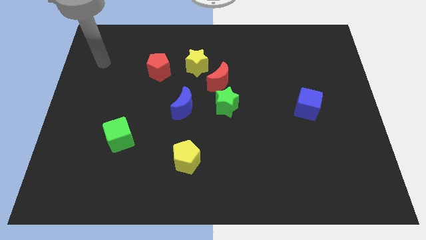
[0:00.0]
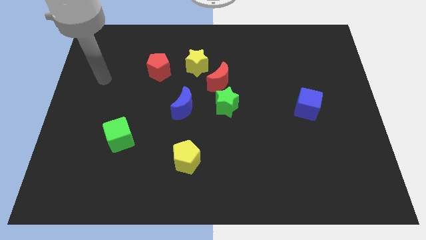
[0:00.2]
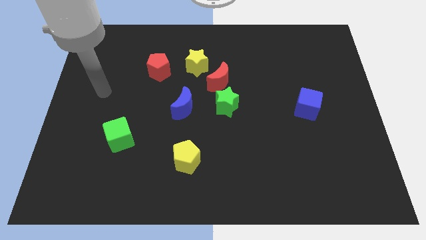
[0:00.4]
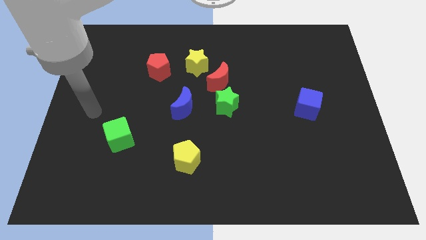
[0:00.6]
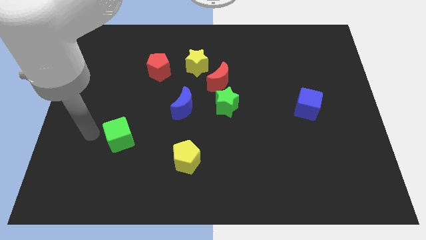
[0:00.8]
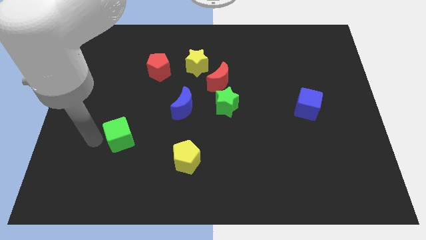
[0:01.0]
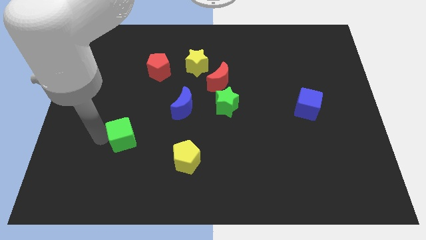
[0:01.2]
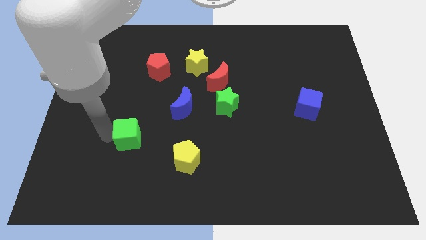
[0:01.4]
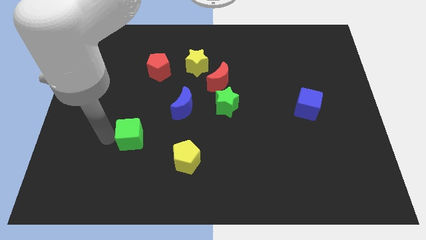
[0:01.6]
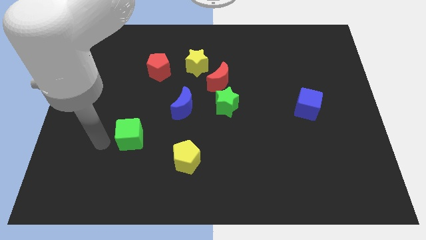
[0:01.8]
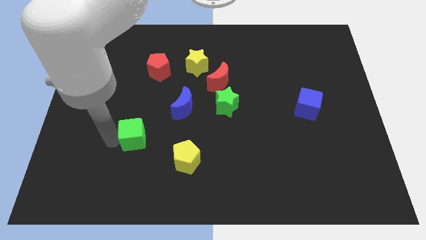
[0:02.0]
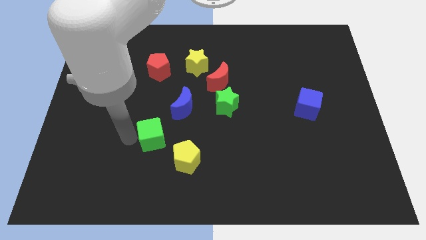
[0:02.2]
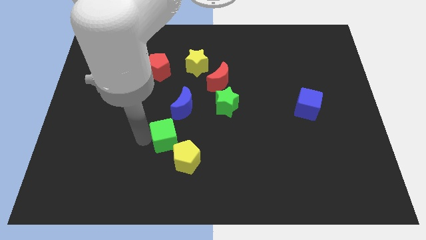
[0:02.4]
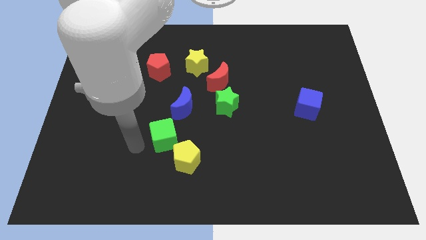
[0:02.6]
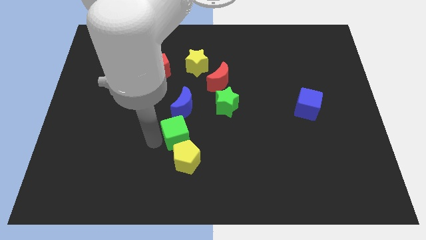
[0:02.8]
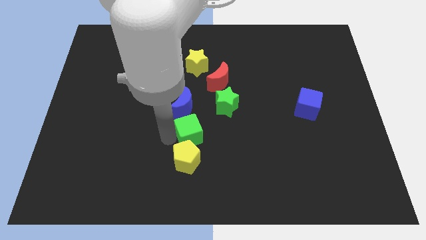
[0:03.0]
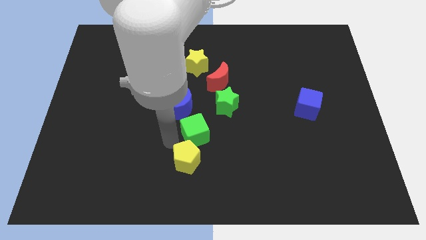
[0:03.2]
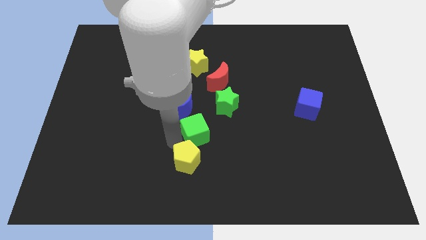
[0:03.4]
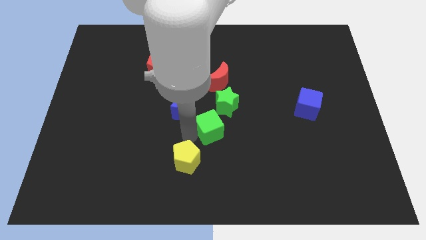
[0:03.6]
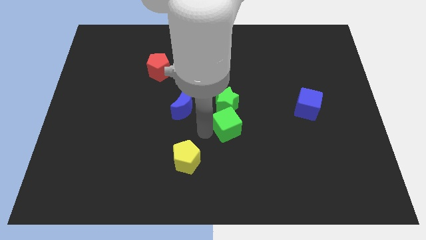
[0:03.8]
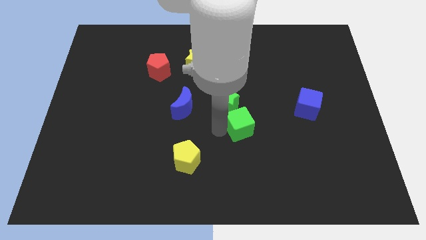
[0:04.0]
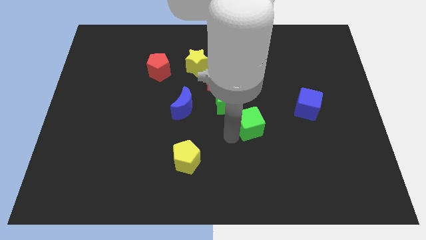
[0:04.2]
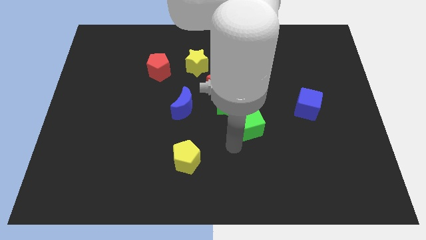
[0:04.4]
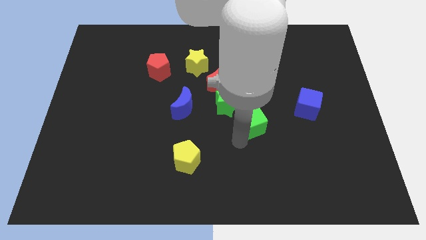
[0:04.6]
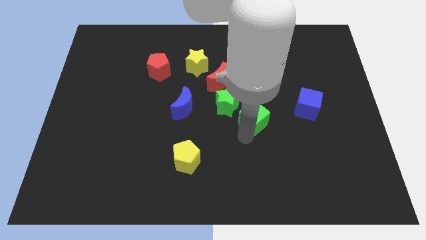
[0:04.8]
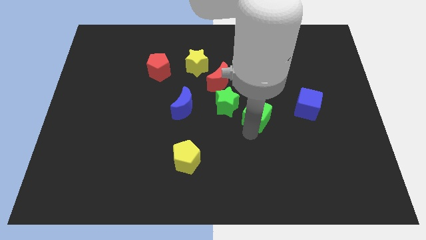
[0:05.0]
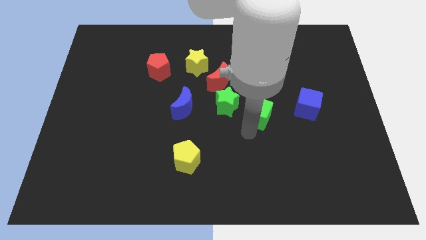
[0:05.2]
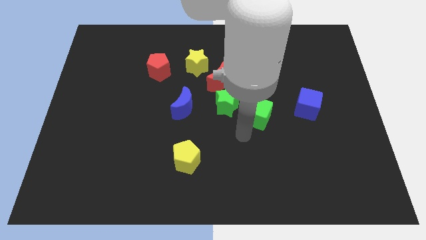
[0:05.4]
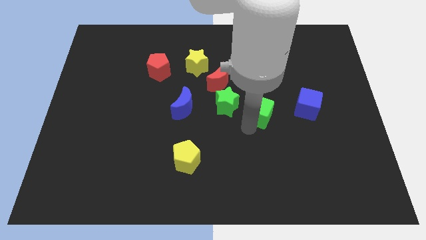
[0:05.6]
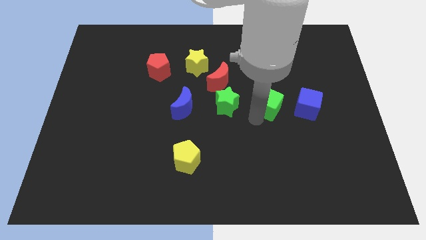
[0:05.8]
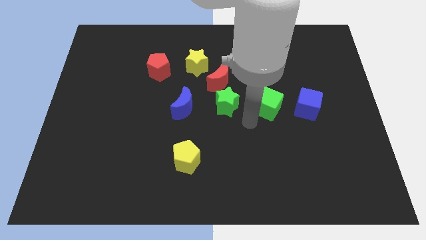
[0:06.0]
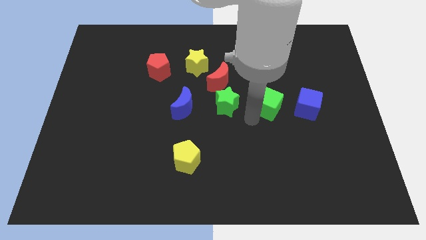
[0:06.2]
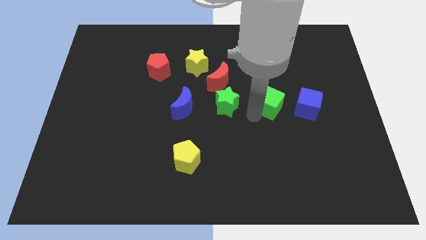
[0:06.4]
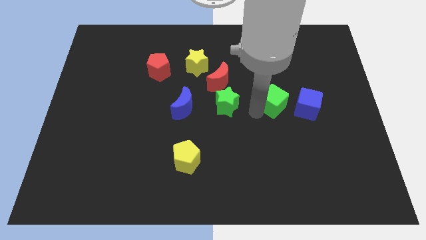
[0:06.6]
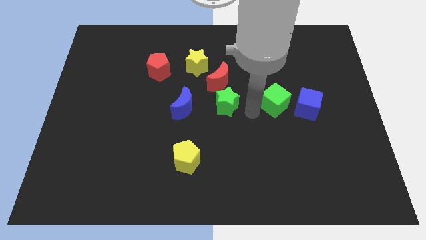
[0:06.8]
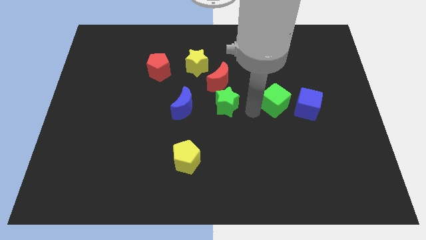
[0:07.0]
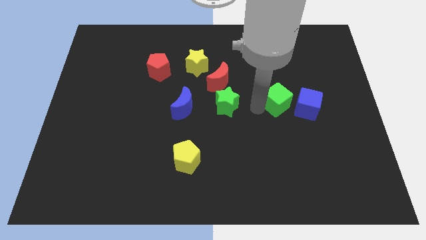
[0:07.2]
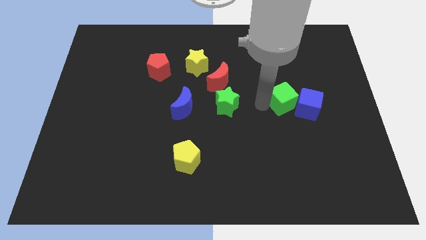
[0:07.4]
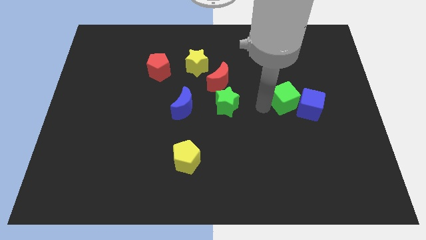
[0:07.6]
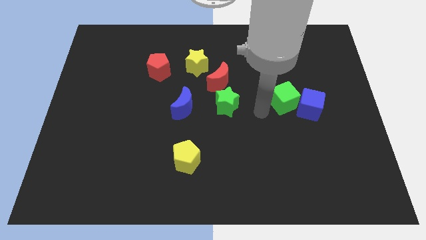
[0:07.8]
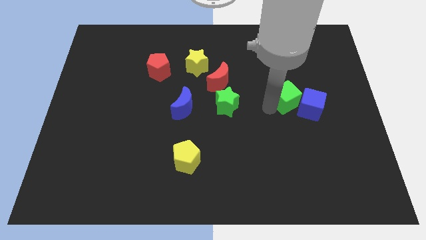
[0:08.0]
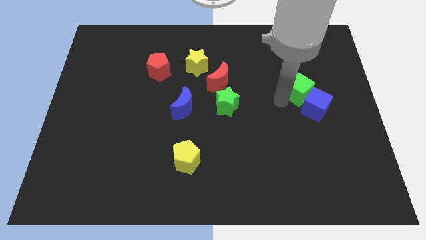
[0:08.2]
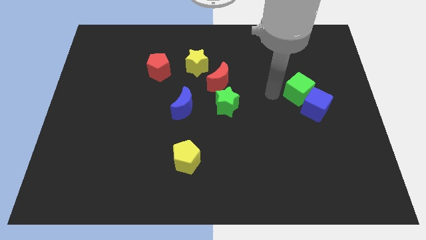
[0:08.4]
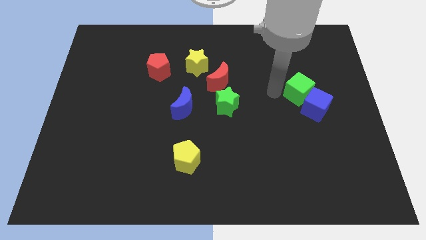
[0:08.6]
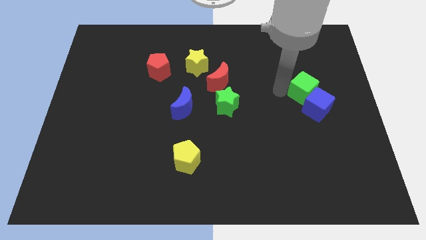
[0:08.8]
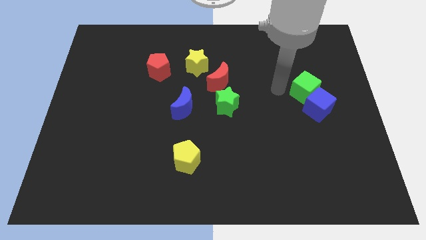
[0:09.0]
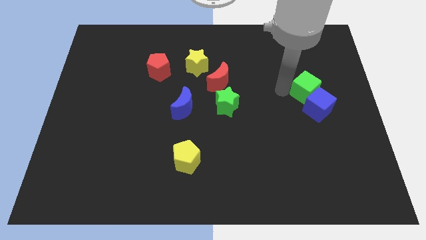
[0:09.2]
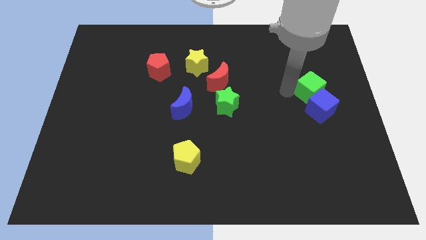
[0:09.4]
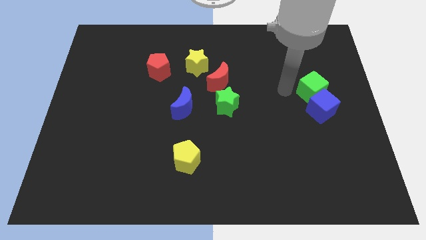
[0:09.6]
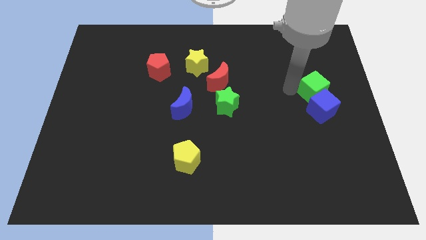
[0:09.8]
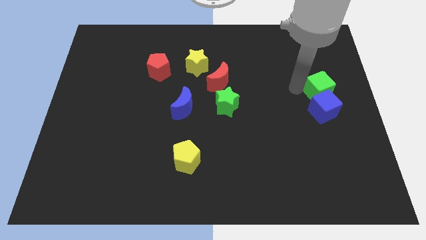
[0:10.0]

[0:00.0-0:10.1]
push the green cube to the right side of the board

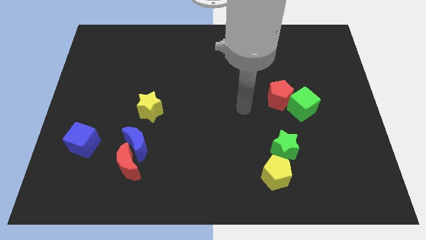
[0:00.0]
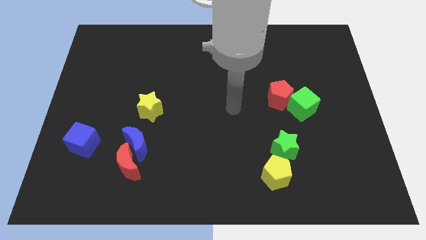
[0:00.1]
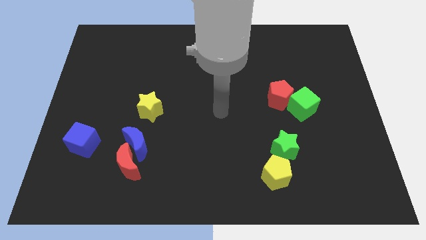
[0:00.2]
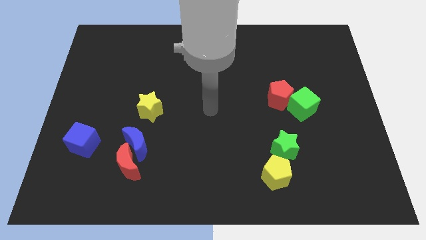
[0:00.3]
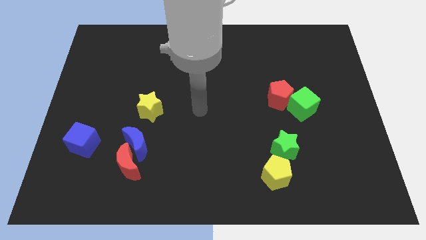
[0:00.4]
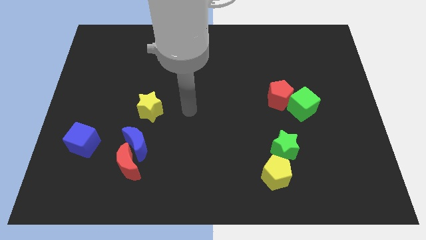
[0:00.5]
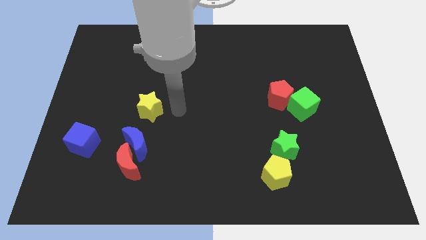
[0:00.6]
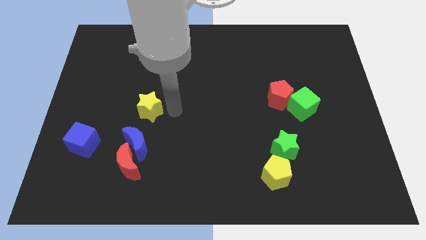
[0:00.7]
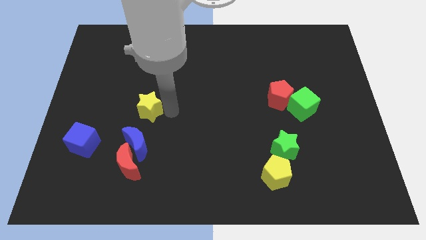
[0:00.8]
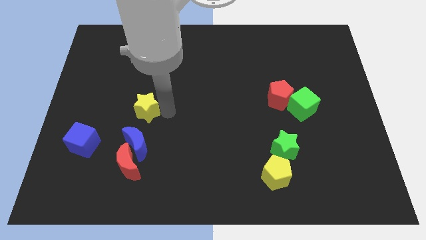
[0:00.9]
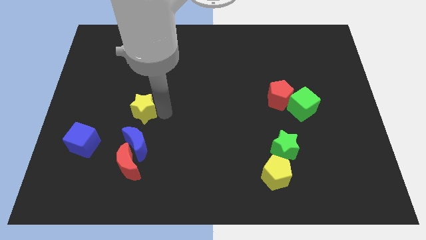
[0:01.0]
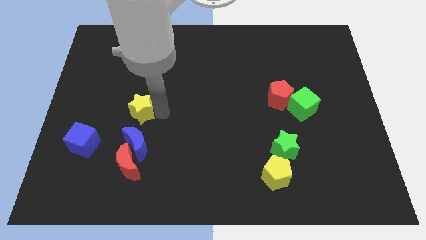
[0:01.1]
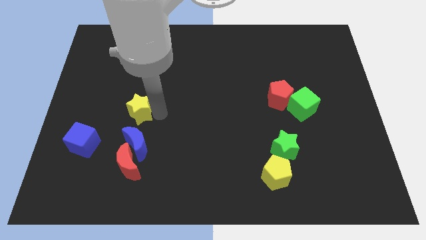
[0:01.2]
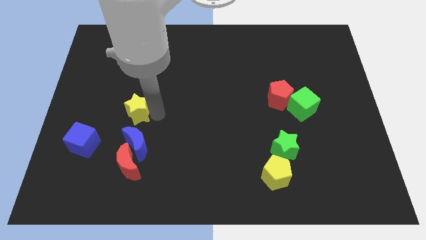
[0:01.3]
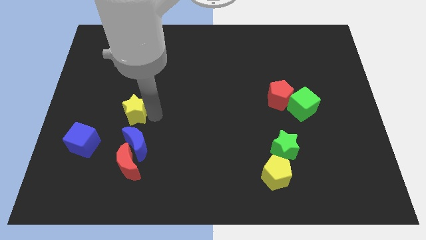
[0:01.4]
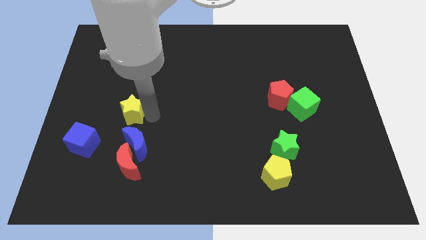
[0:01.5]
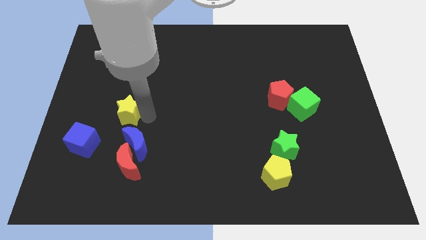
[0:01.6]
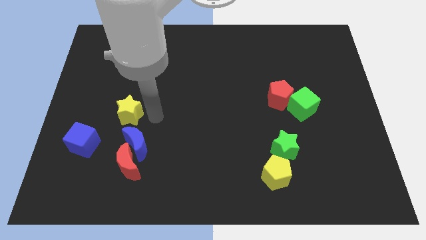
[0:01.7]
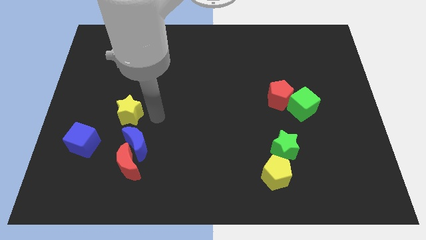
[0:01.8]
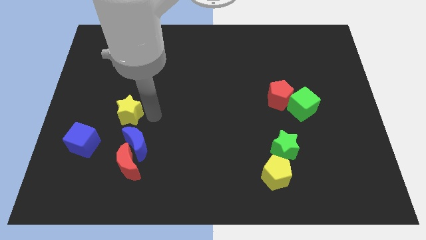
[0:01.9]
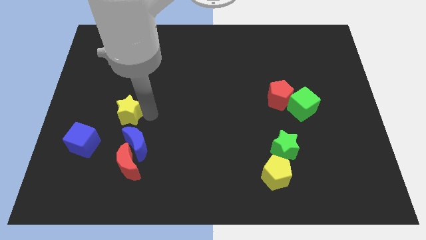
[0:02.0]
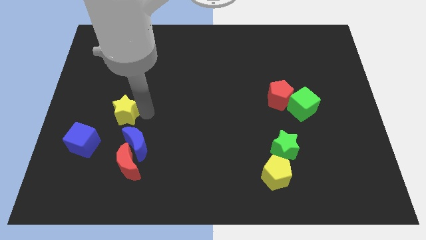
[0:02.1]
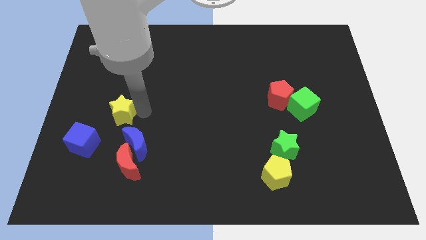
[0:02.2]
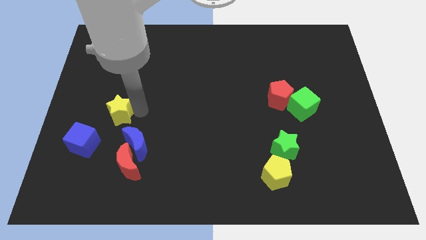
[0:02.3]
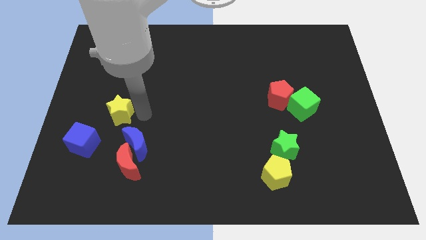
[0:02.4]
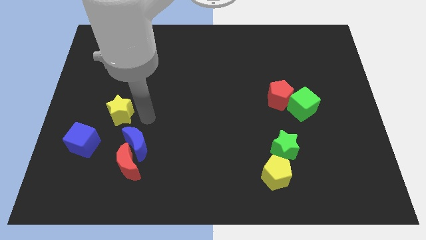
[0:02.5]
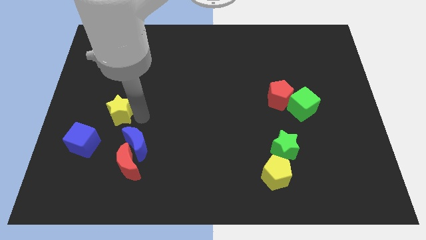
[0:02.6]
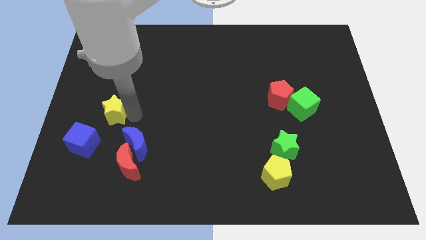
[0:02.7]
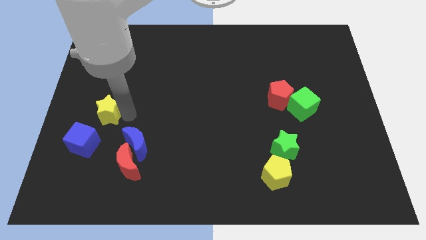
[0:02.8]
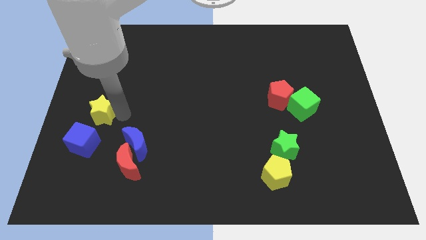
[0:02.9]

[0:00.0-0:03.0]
put the yellow star to the left side
